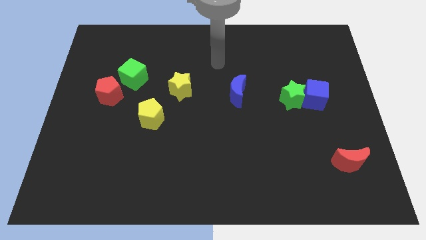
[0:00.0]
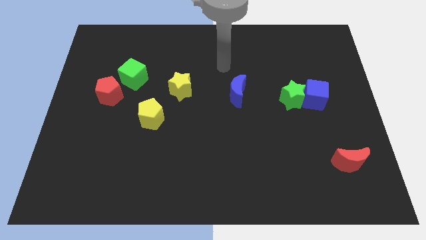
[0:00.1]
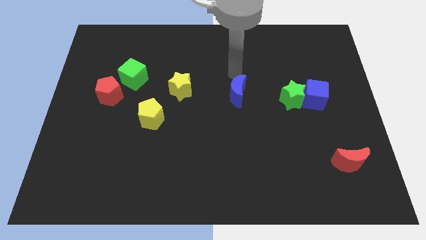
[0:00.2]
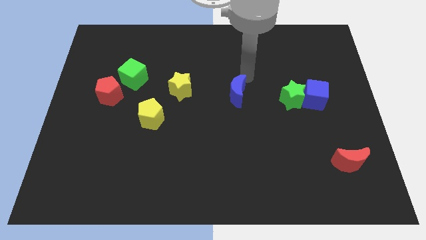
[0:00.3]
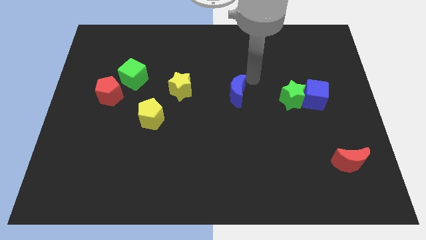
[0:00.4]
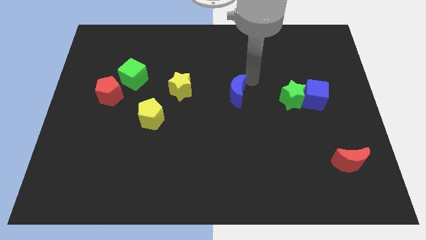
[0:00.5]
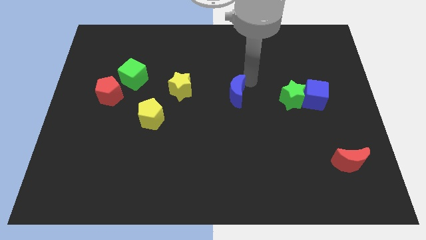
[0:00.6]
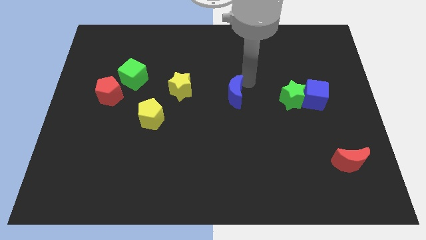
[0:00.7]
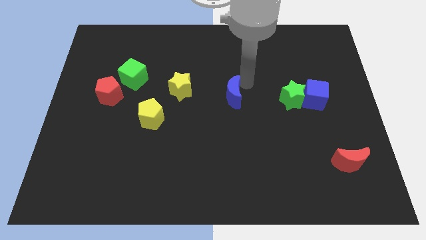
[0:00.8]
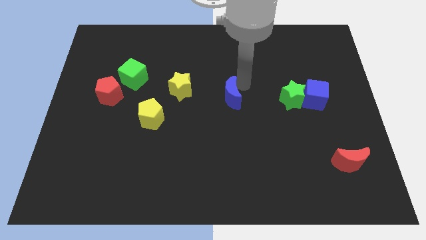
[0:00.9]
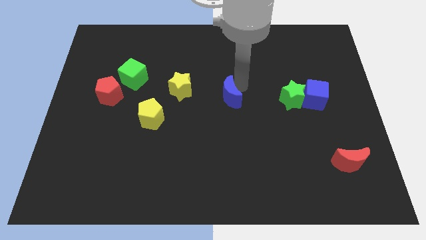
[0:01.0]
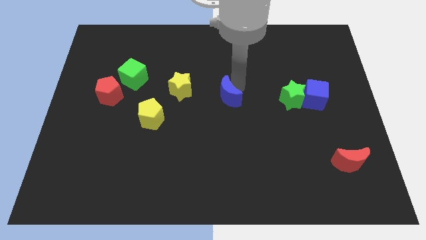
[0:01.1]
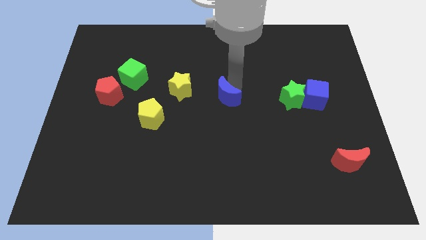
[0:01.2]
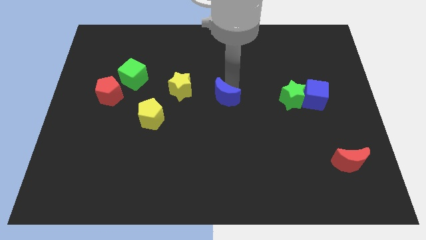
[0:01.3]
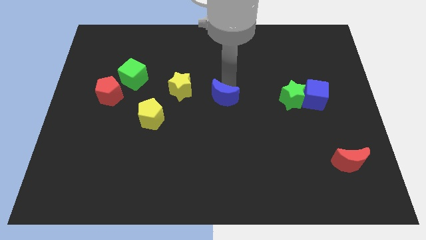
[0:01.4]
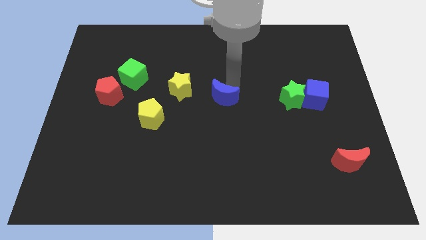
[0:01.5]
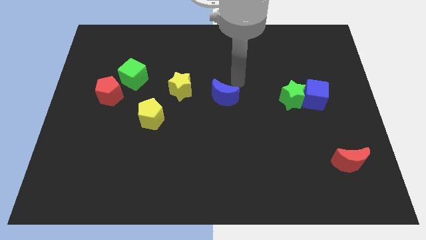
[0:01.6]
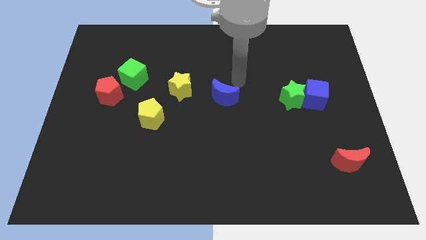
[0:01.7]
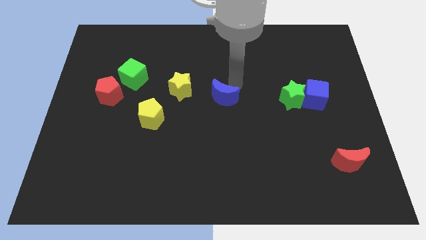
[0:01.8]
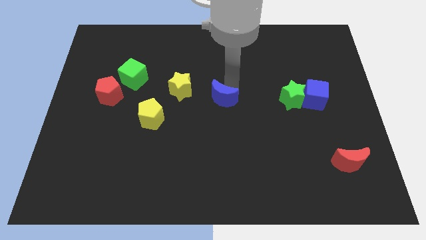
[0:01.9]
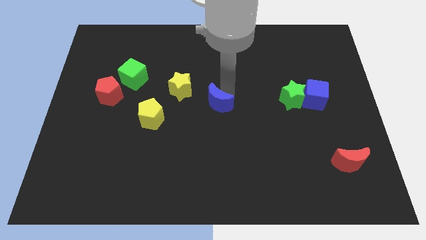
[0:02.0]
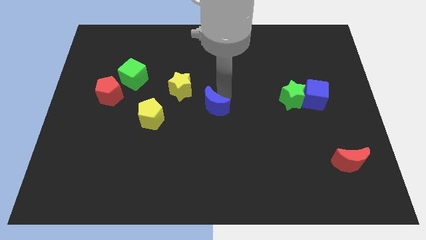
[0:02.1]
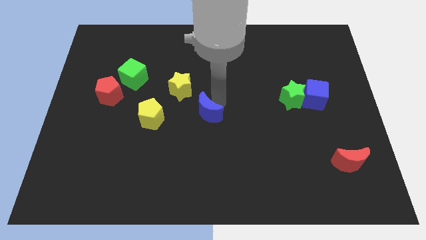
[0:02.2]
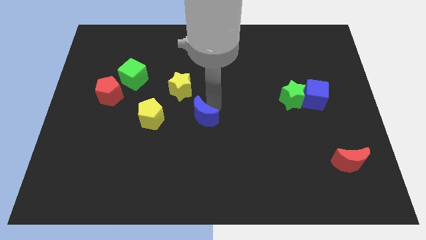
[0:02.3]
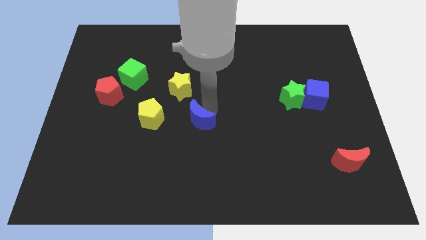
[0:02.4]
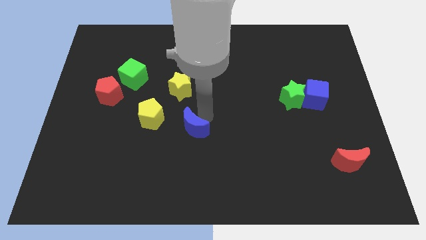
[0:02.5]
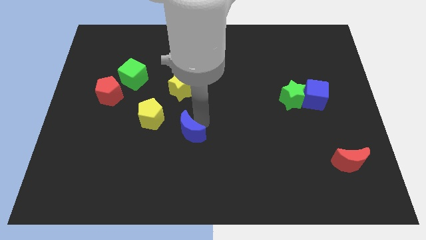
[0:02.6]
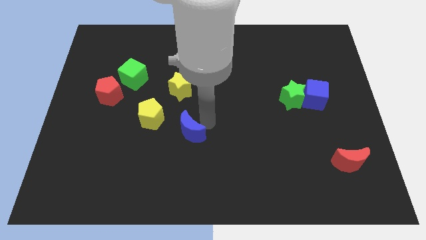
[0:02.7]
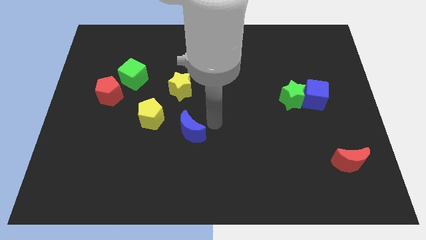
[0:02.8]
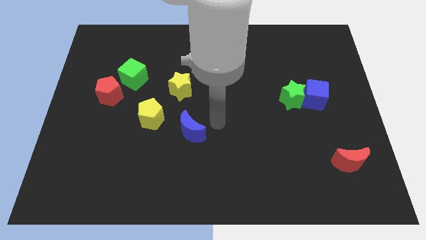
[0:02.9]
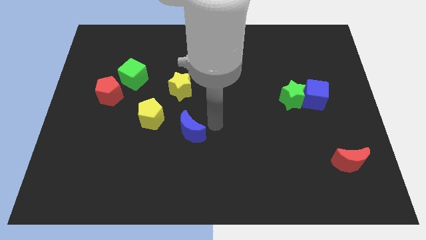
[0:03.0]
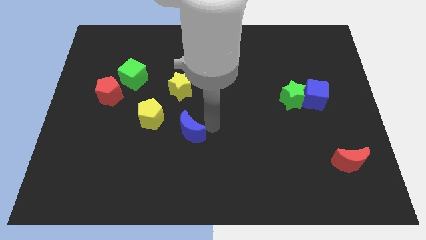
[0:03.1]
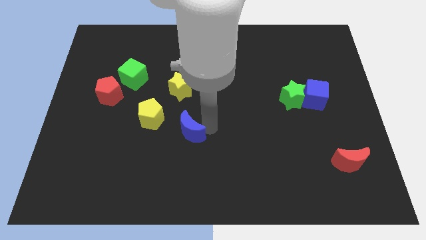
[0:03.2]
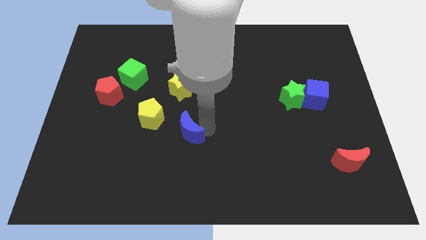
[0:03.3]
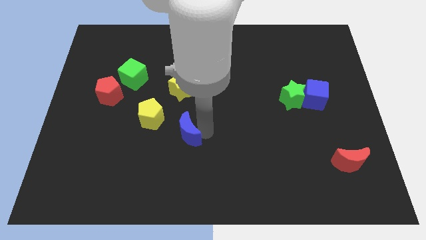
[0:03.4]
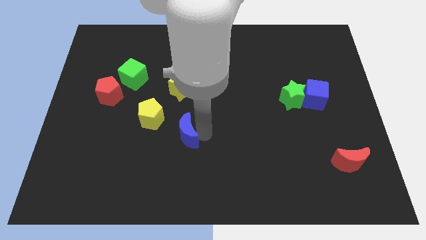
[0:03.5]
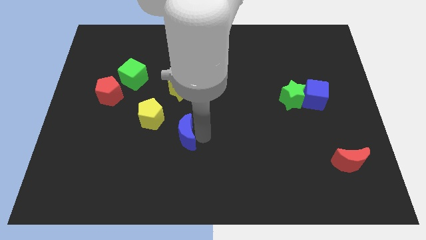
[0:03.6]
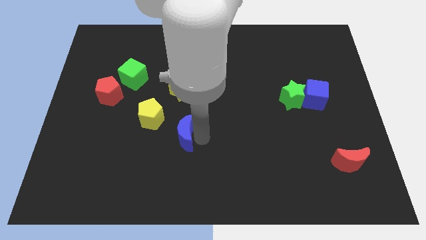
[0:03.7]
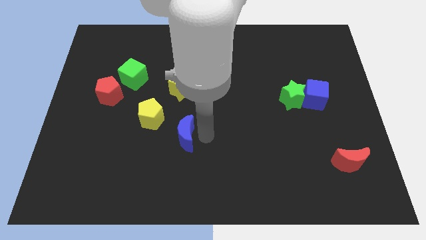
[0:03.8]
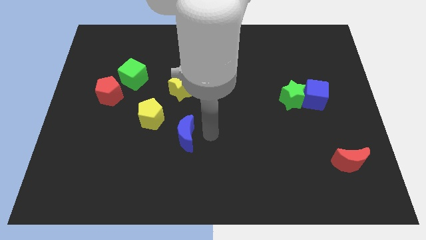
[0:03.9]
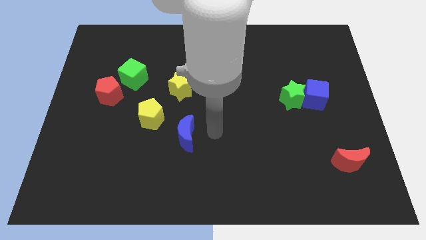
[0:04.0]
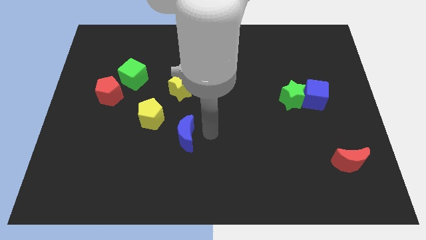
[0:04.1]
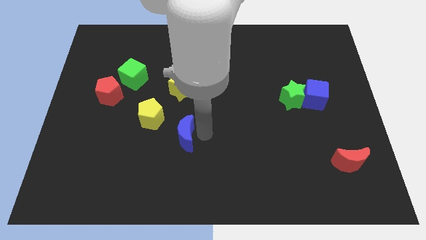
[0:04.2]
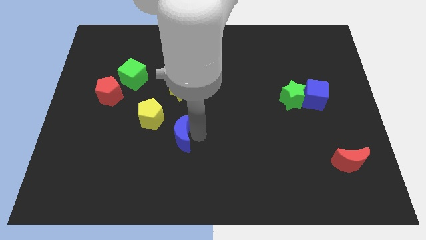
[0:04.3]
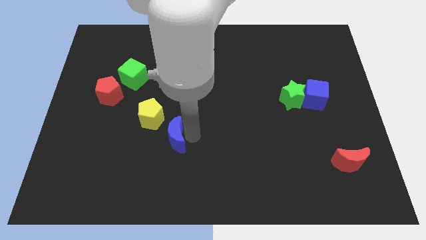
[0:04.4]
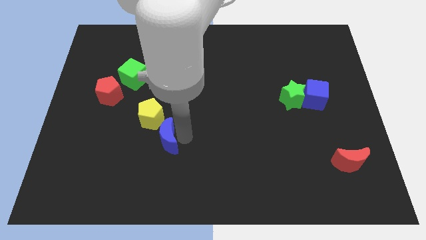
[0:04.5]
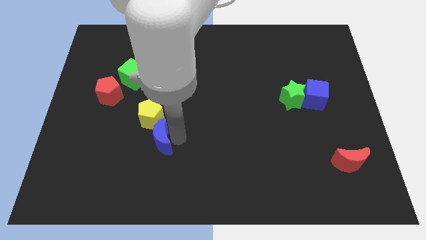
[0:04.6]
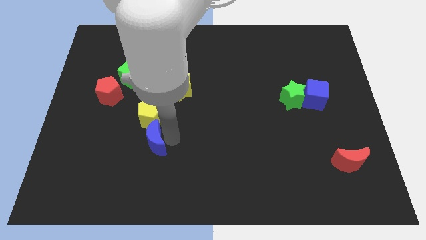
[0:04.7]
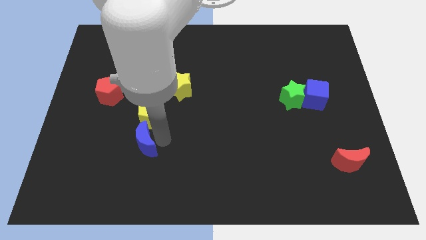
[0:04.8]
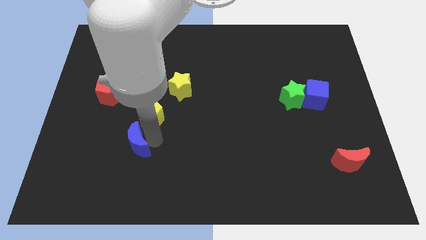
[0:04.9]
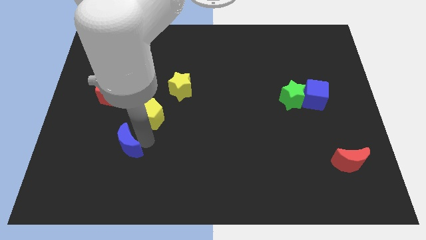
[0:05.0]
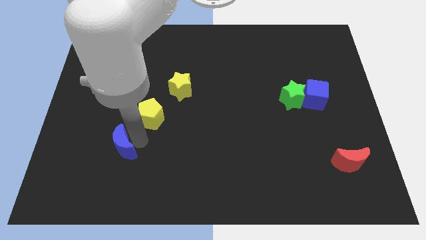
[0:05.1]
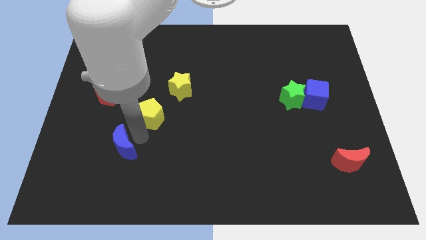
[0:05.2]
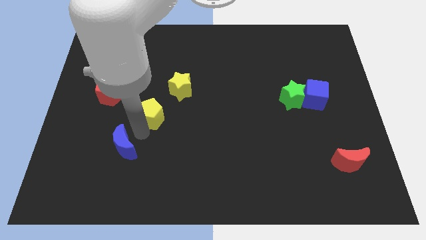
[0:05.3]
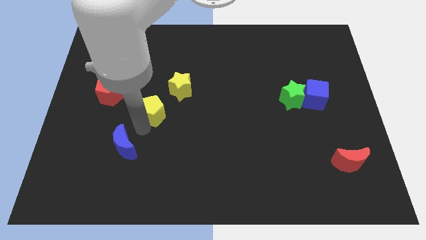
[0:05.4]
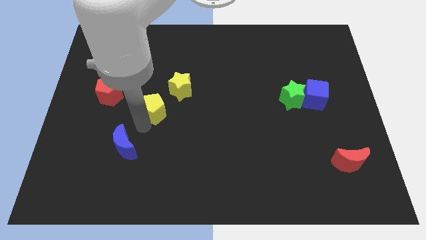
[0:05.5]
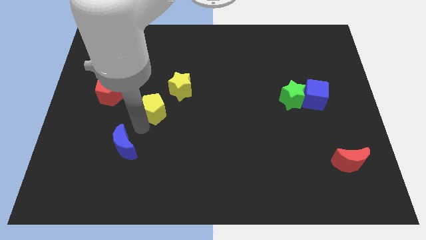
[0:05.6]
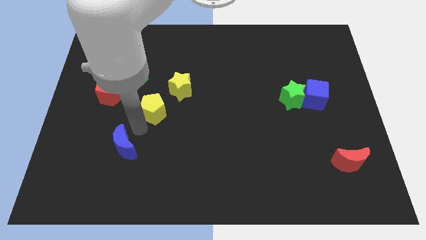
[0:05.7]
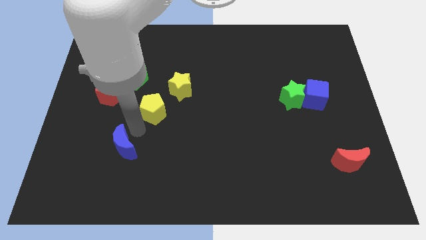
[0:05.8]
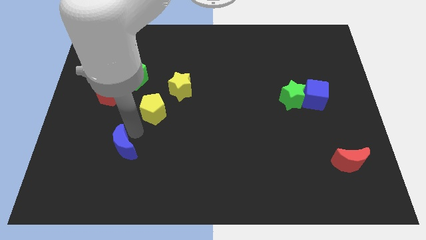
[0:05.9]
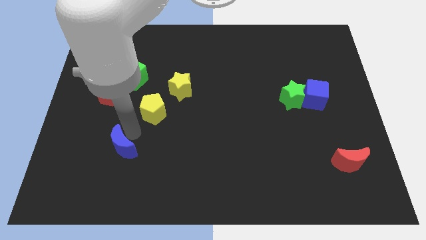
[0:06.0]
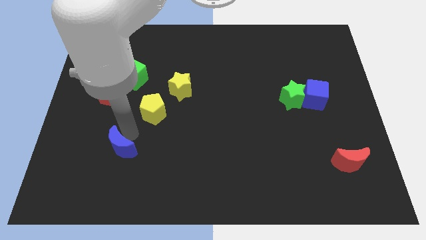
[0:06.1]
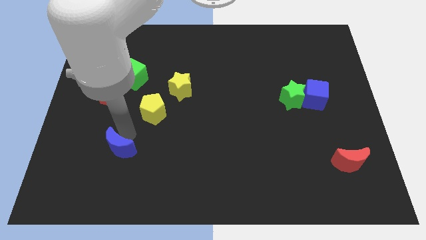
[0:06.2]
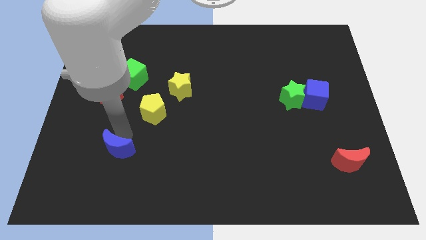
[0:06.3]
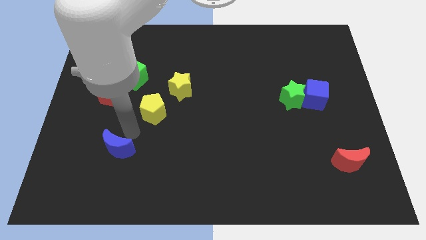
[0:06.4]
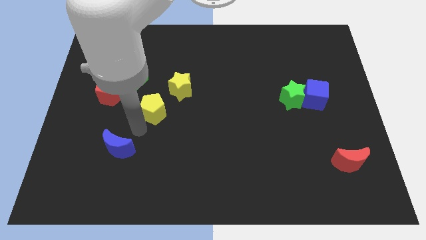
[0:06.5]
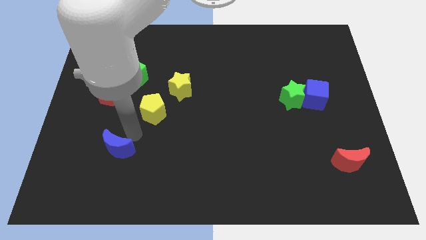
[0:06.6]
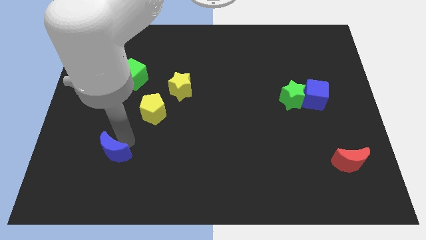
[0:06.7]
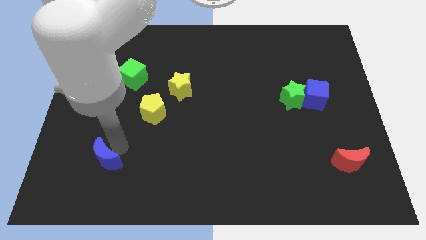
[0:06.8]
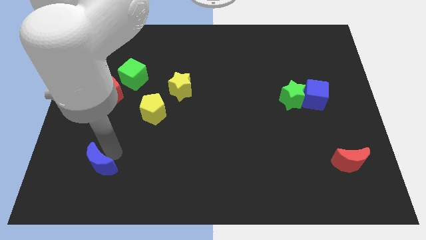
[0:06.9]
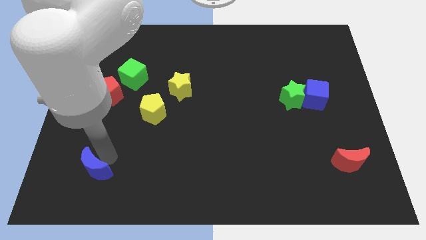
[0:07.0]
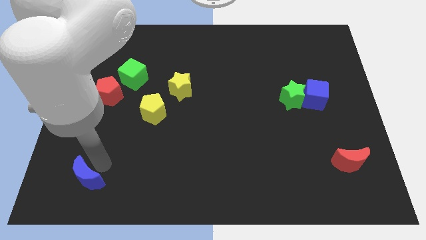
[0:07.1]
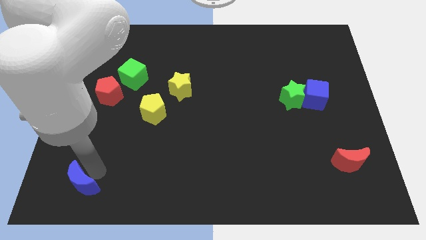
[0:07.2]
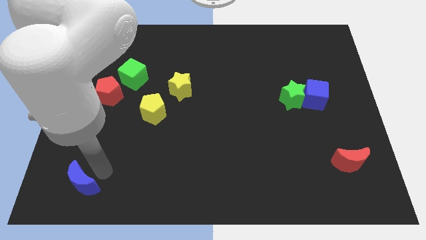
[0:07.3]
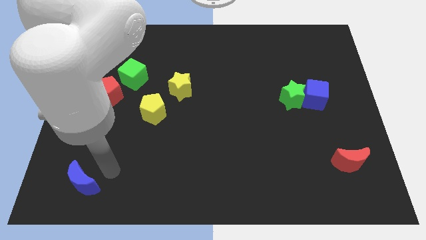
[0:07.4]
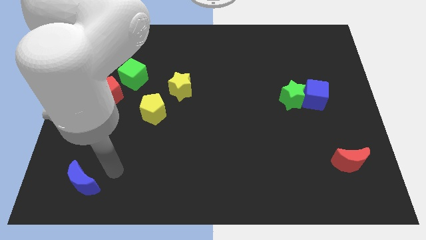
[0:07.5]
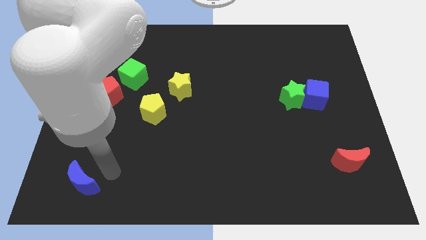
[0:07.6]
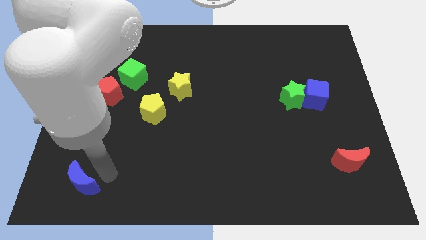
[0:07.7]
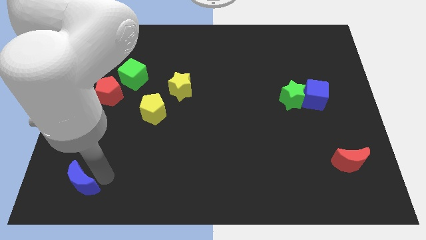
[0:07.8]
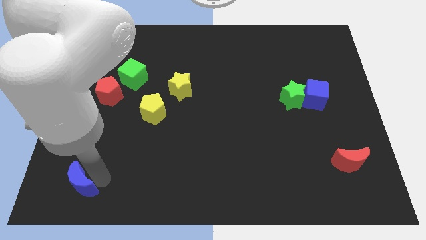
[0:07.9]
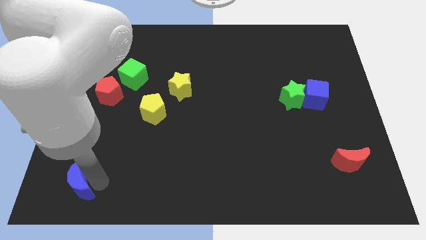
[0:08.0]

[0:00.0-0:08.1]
move the blue moon to the bottom left corner

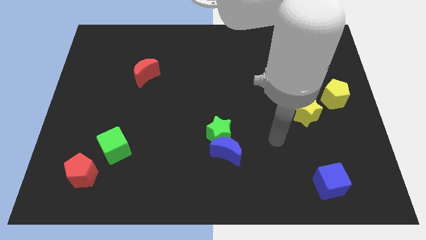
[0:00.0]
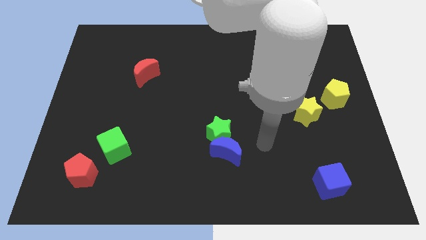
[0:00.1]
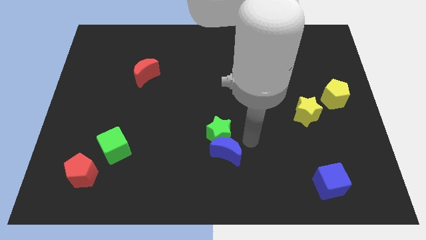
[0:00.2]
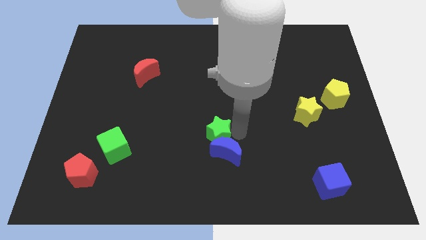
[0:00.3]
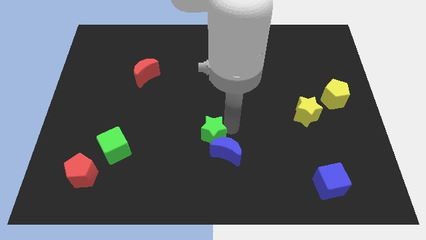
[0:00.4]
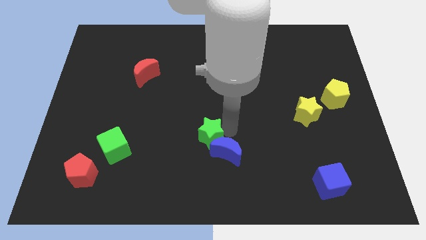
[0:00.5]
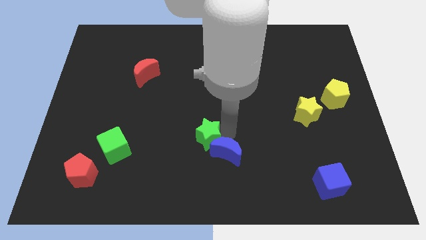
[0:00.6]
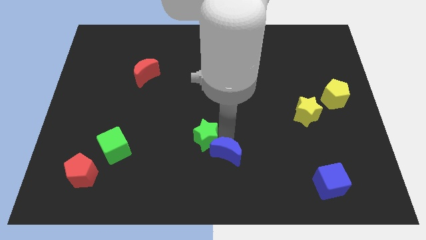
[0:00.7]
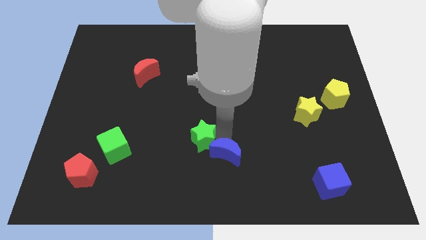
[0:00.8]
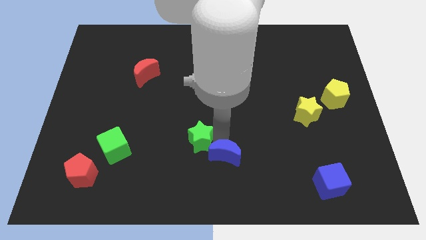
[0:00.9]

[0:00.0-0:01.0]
move the blue moon to the bottom
